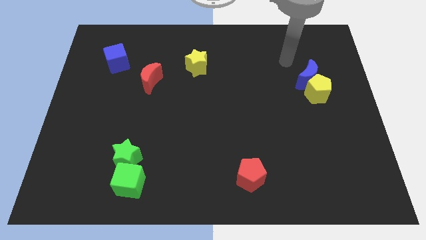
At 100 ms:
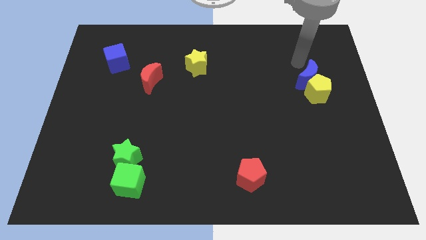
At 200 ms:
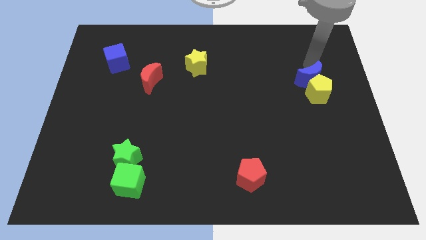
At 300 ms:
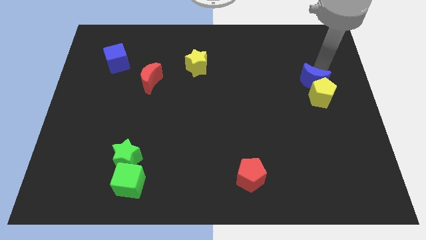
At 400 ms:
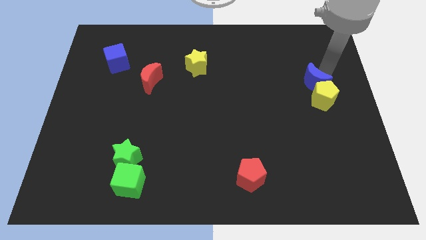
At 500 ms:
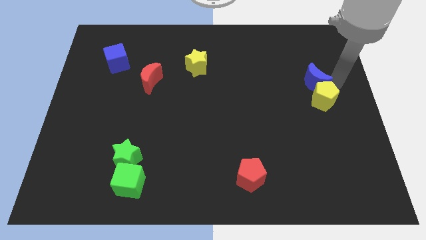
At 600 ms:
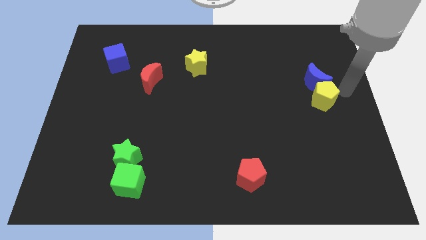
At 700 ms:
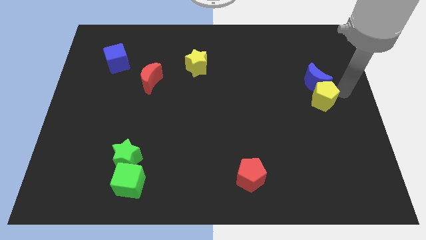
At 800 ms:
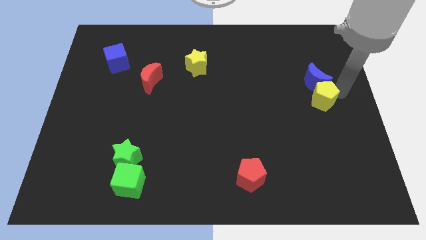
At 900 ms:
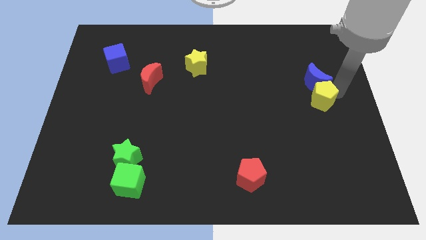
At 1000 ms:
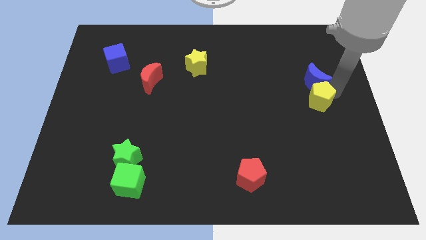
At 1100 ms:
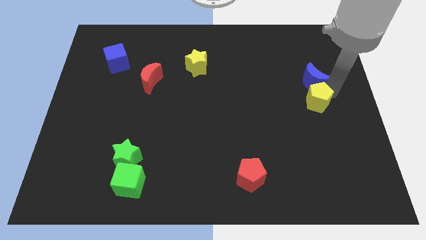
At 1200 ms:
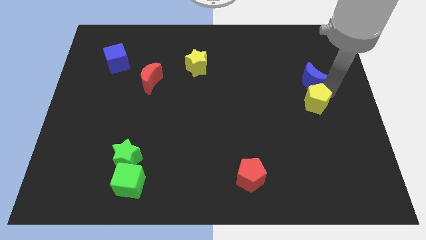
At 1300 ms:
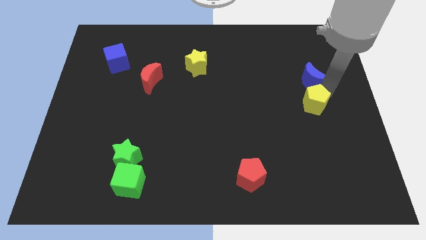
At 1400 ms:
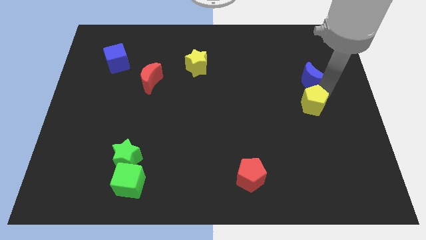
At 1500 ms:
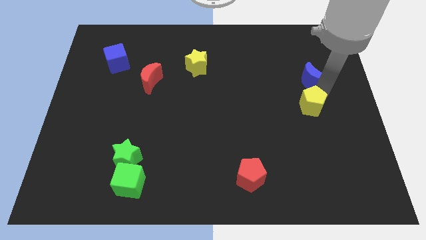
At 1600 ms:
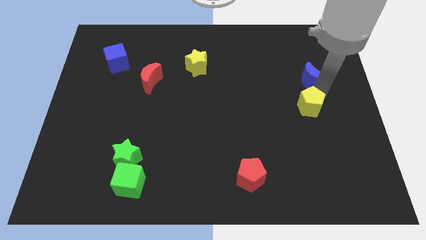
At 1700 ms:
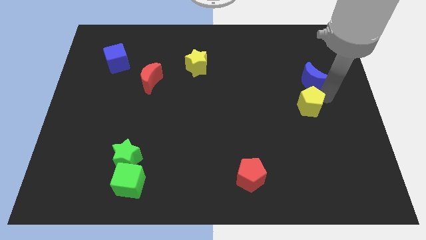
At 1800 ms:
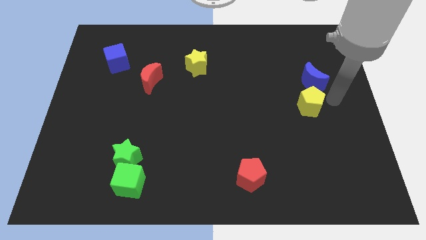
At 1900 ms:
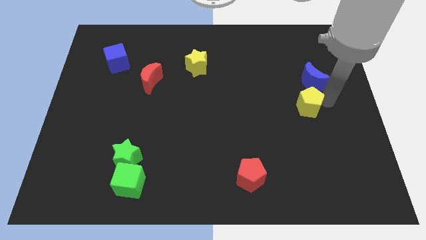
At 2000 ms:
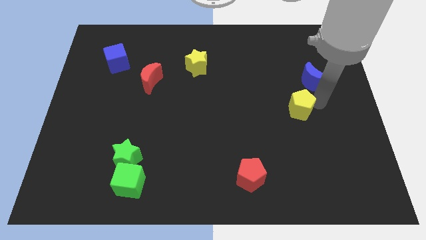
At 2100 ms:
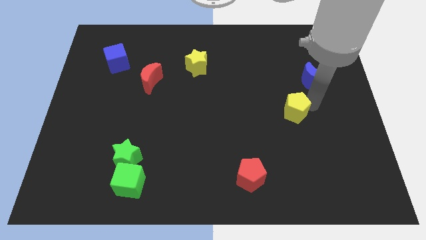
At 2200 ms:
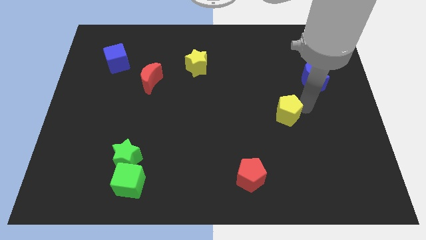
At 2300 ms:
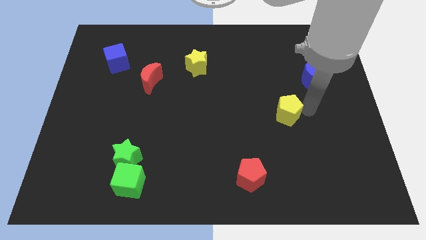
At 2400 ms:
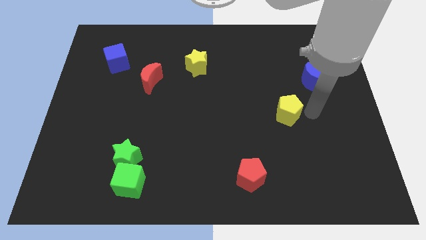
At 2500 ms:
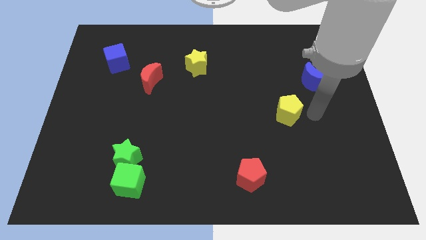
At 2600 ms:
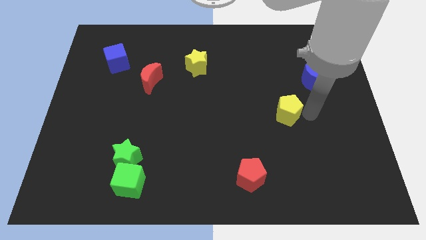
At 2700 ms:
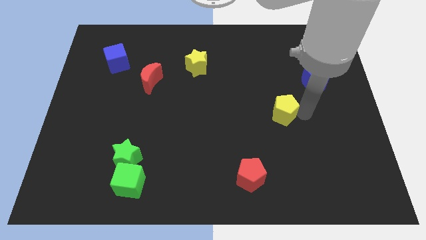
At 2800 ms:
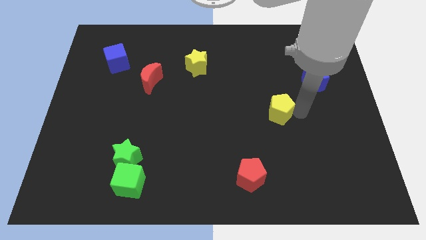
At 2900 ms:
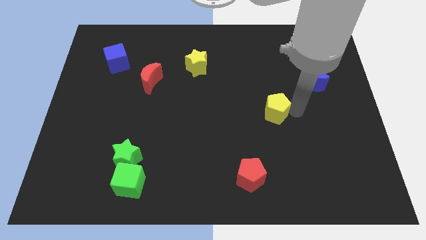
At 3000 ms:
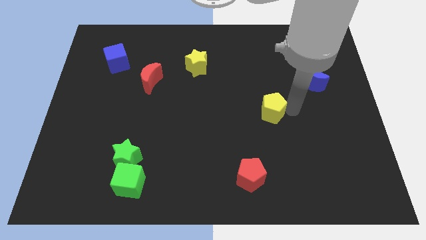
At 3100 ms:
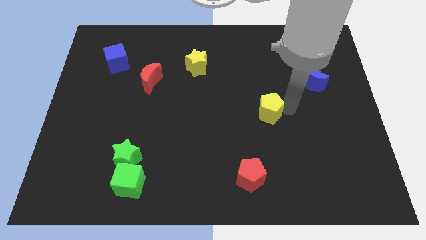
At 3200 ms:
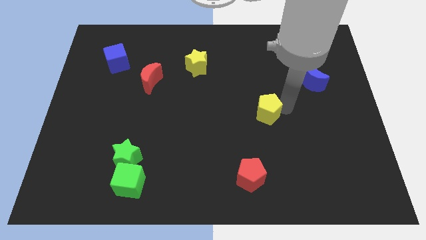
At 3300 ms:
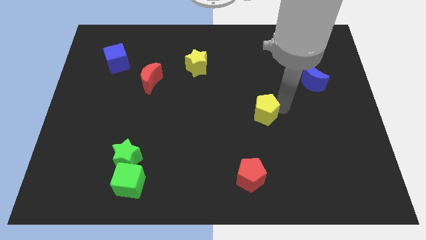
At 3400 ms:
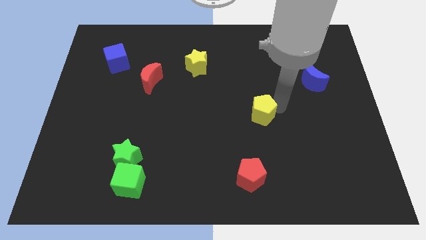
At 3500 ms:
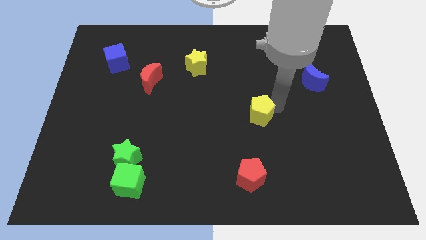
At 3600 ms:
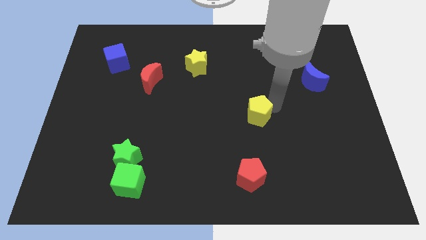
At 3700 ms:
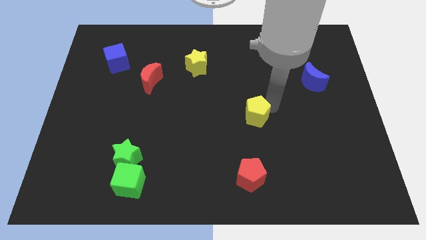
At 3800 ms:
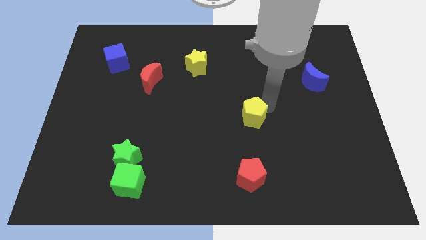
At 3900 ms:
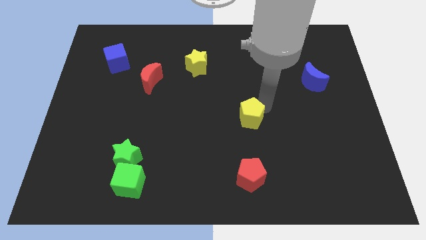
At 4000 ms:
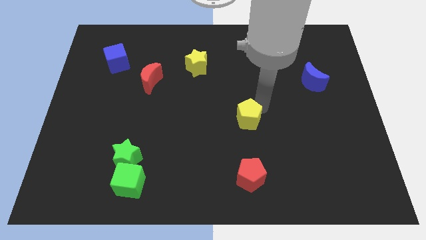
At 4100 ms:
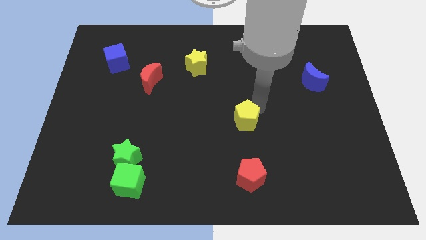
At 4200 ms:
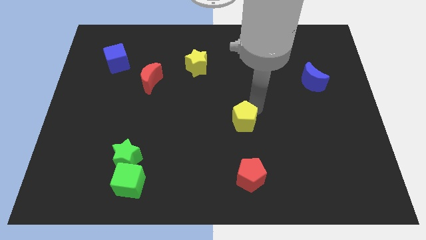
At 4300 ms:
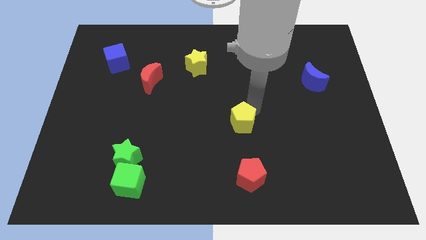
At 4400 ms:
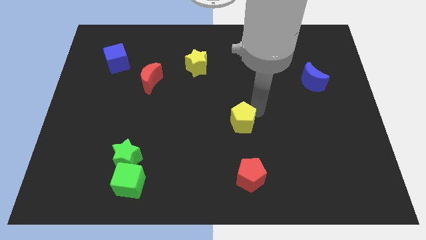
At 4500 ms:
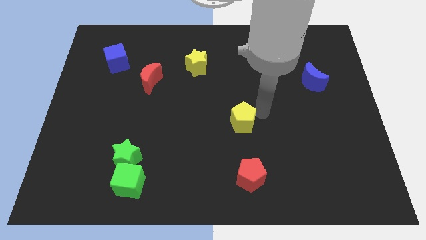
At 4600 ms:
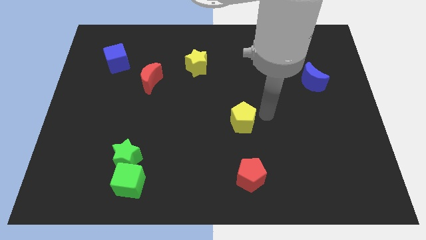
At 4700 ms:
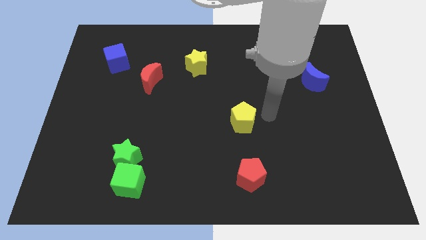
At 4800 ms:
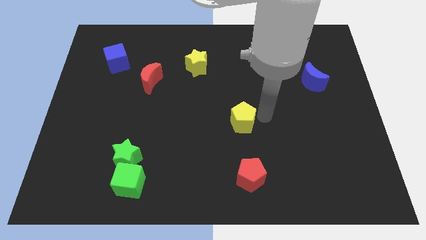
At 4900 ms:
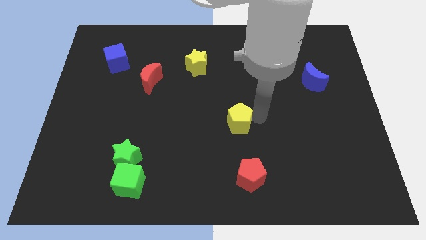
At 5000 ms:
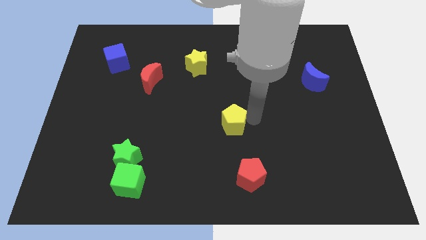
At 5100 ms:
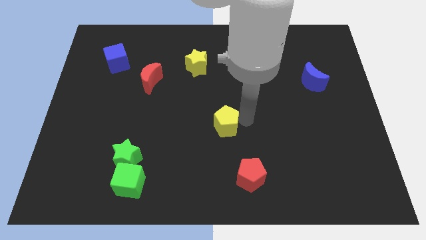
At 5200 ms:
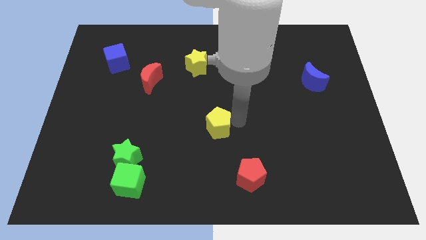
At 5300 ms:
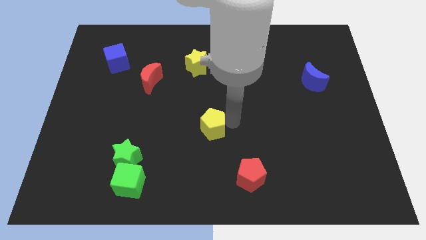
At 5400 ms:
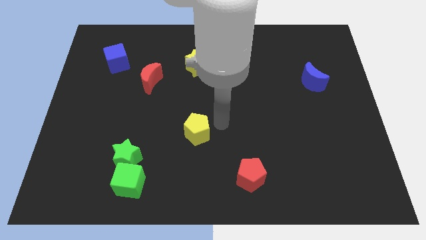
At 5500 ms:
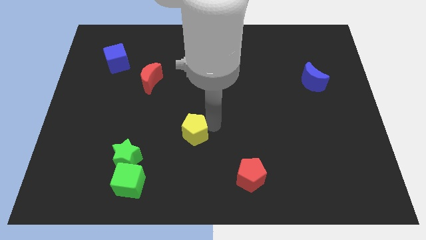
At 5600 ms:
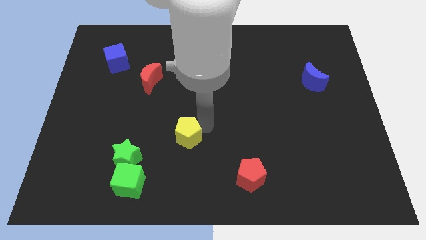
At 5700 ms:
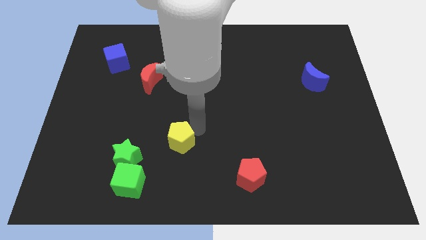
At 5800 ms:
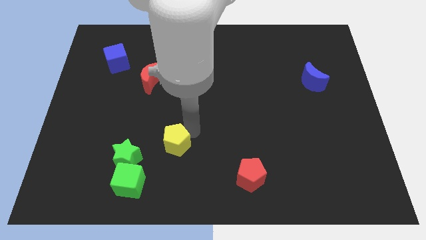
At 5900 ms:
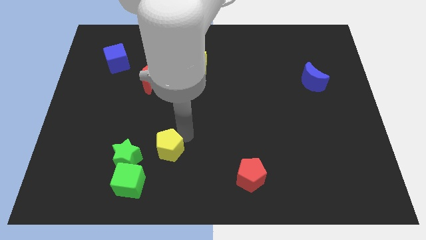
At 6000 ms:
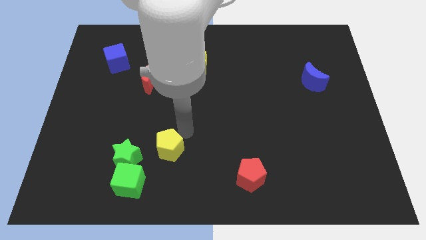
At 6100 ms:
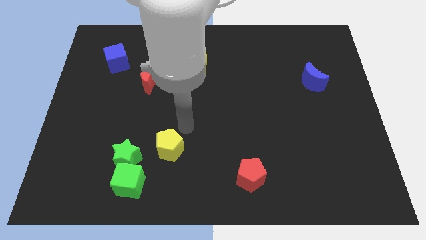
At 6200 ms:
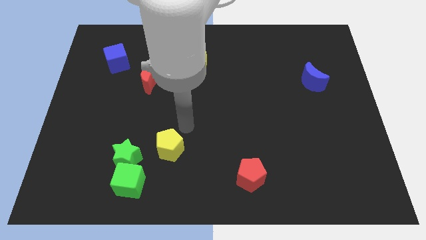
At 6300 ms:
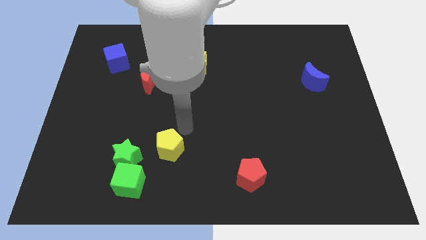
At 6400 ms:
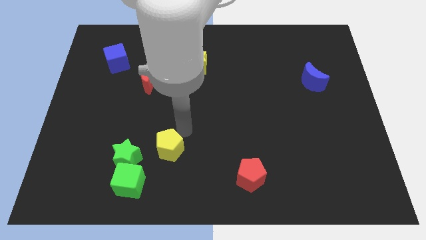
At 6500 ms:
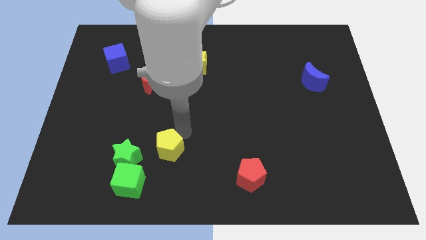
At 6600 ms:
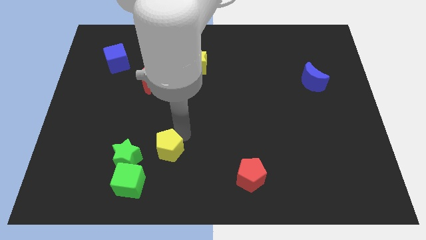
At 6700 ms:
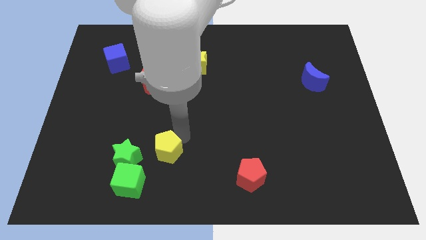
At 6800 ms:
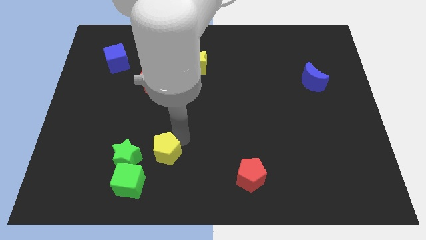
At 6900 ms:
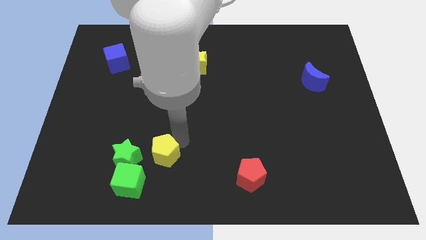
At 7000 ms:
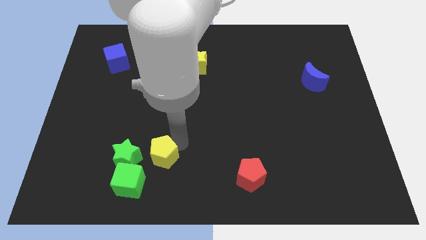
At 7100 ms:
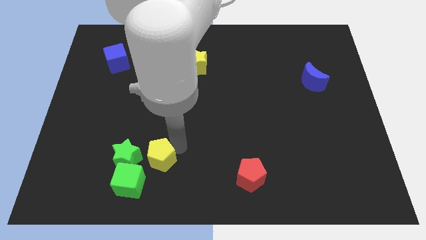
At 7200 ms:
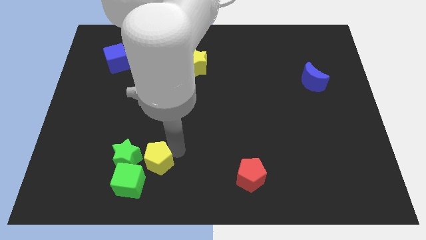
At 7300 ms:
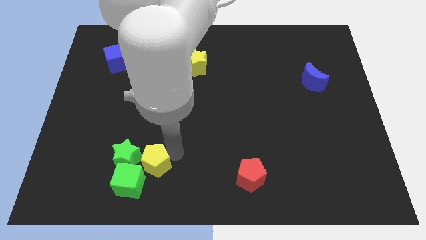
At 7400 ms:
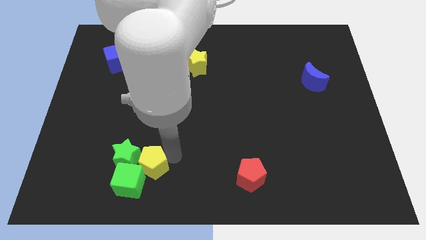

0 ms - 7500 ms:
put the yellow pentagon towards the green cube

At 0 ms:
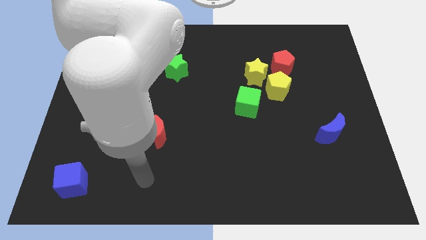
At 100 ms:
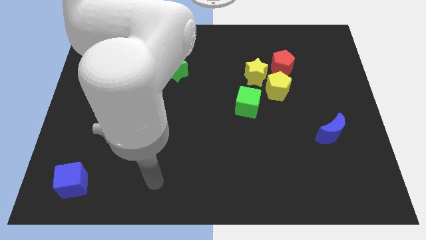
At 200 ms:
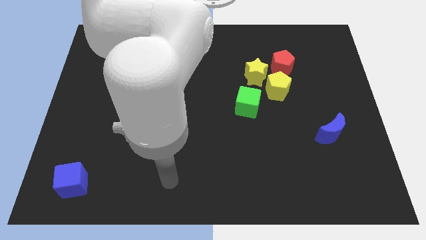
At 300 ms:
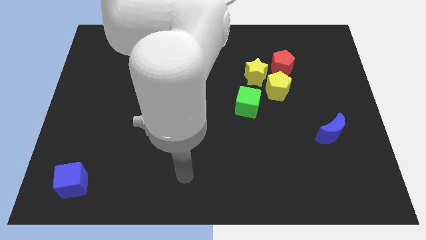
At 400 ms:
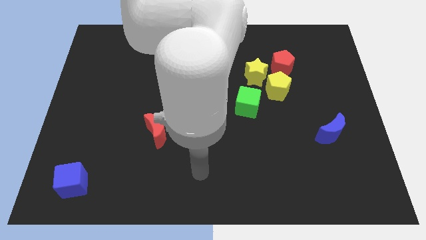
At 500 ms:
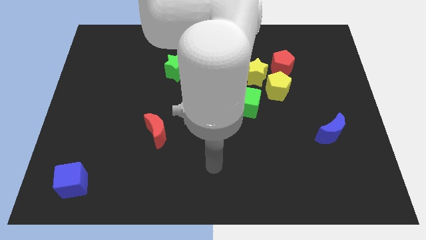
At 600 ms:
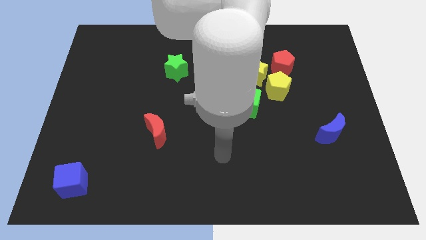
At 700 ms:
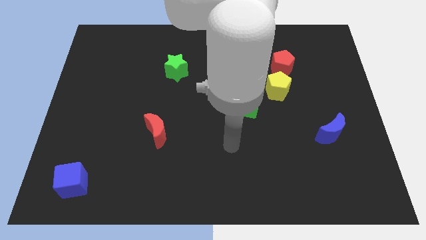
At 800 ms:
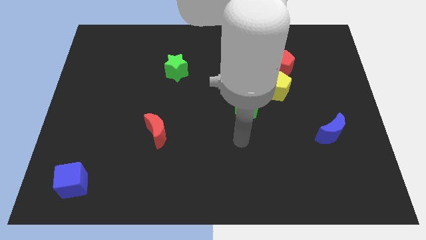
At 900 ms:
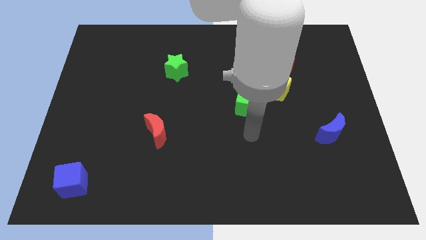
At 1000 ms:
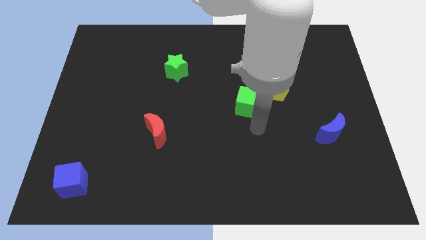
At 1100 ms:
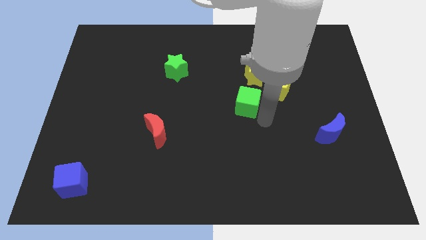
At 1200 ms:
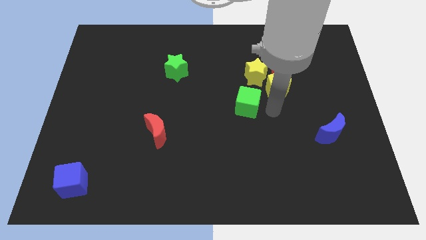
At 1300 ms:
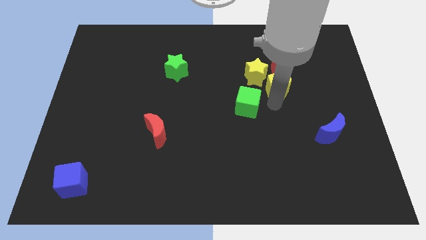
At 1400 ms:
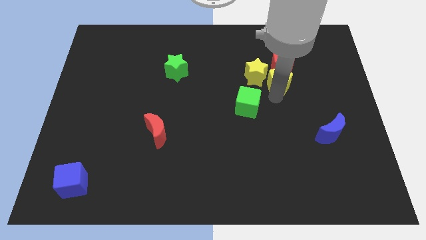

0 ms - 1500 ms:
put the yellow pentagon to the red pentagon
